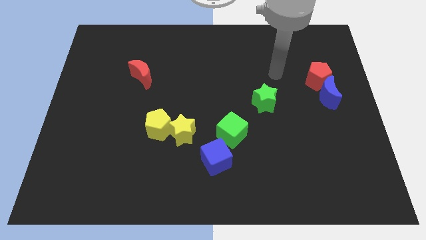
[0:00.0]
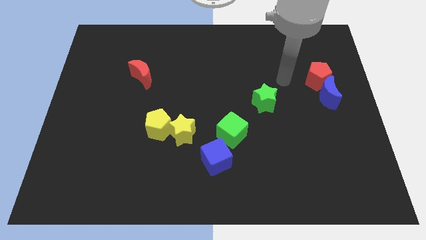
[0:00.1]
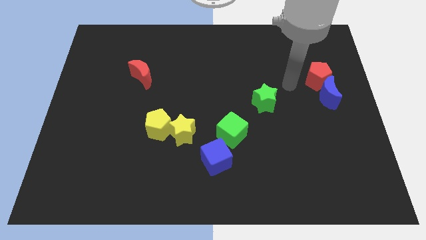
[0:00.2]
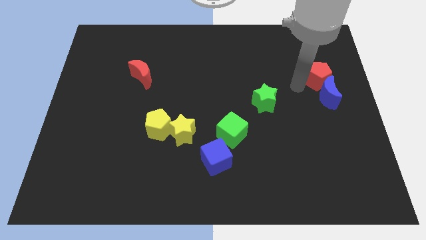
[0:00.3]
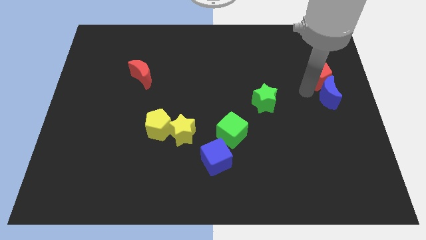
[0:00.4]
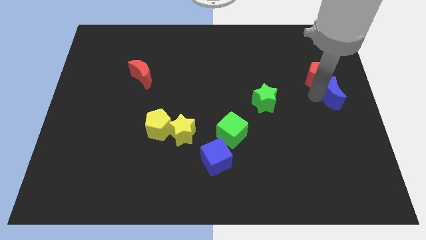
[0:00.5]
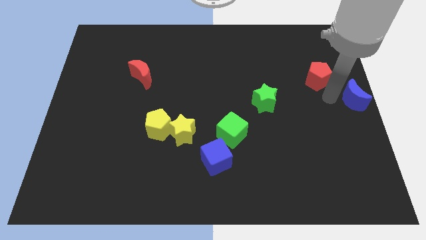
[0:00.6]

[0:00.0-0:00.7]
pull the red pentagon apart from the blue moon

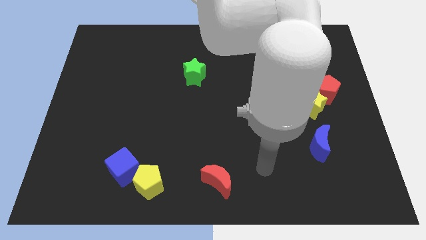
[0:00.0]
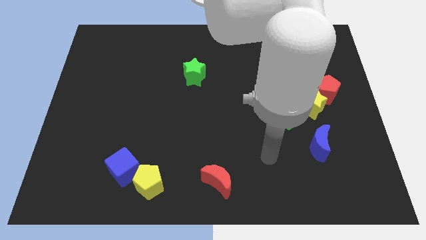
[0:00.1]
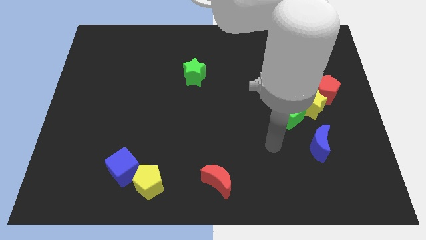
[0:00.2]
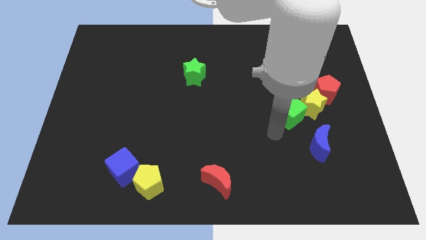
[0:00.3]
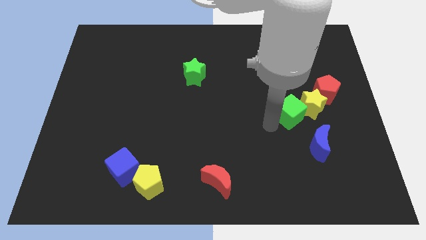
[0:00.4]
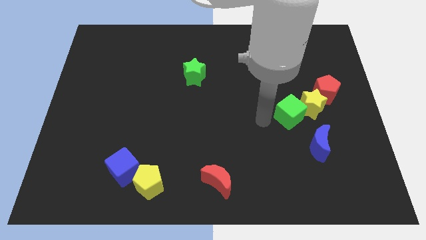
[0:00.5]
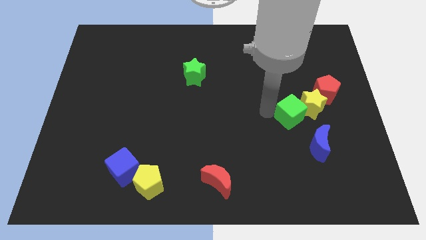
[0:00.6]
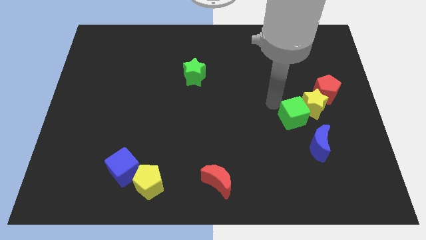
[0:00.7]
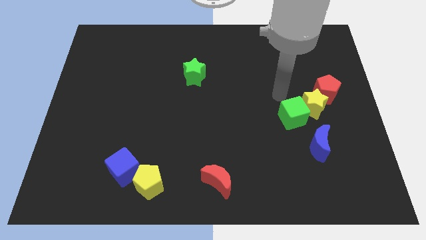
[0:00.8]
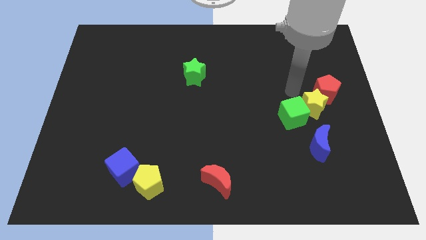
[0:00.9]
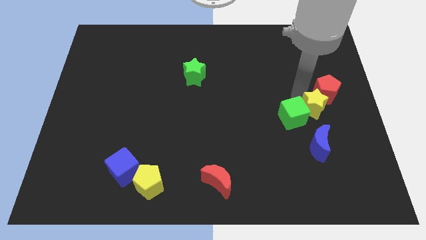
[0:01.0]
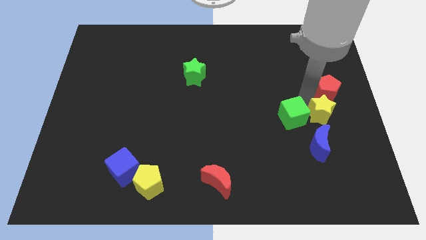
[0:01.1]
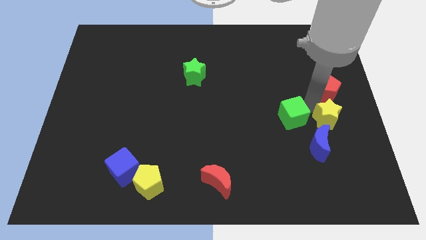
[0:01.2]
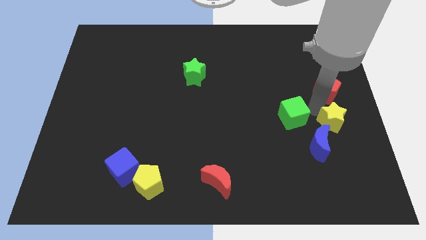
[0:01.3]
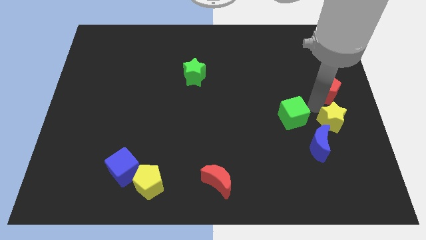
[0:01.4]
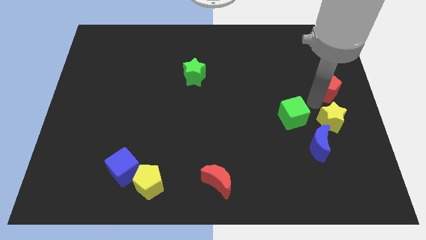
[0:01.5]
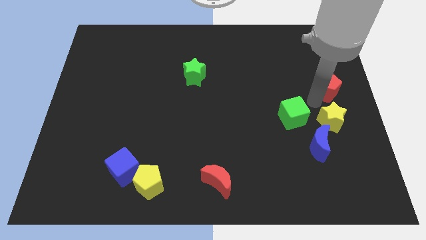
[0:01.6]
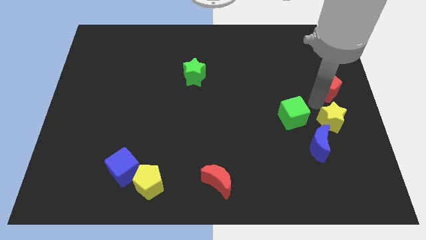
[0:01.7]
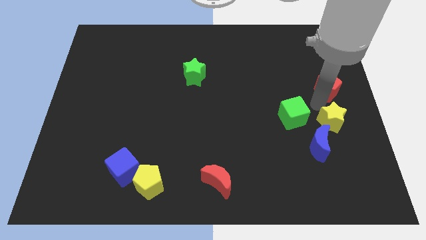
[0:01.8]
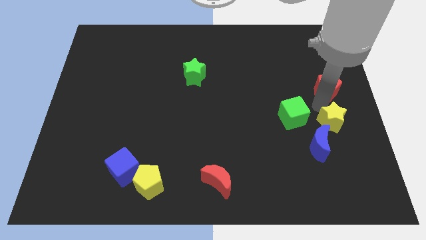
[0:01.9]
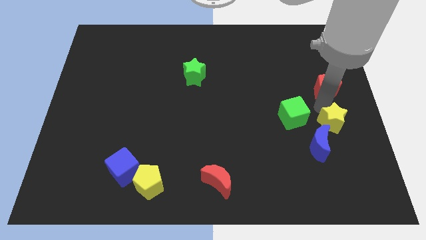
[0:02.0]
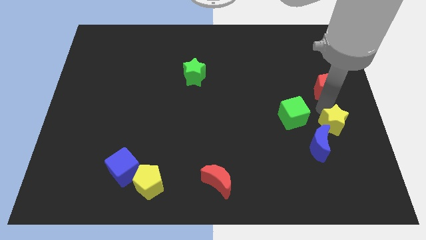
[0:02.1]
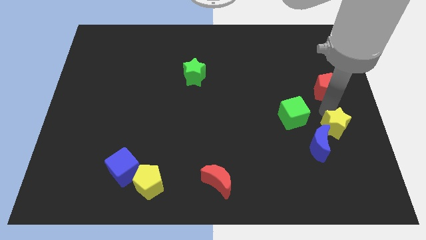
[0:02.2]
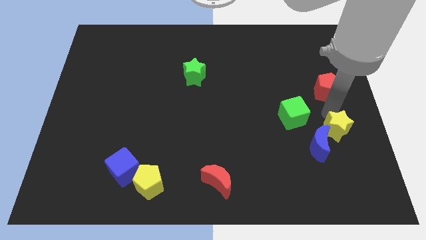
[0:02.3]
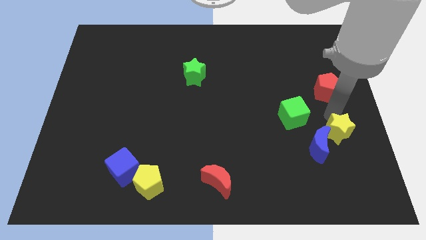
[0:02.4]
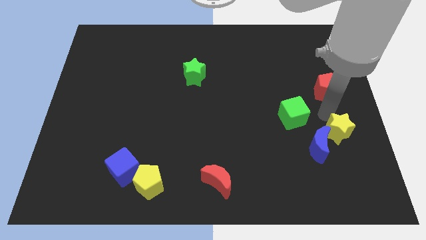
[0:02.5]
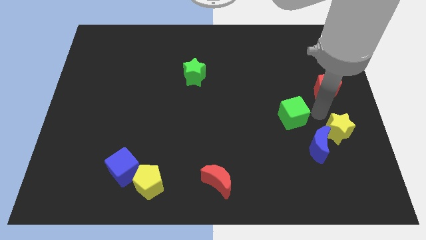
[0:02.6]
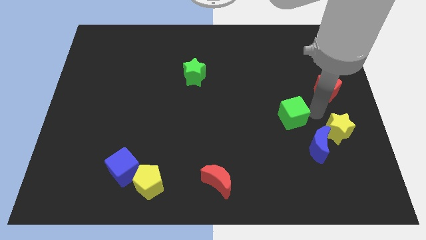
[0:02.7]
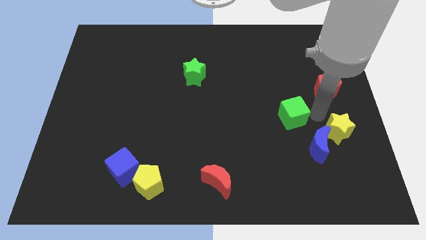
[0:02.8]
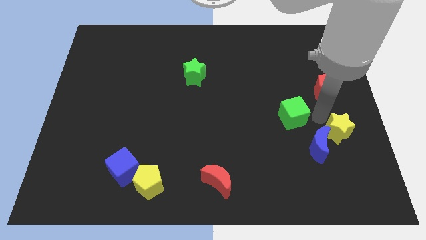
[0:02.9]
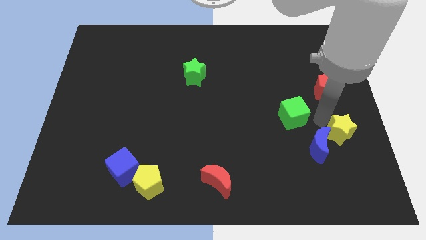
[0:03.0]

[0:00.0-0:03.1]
move the yellow star away from the green cube and red pentagon

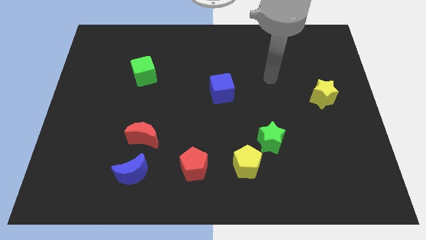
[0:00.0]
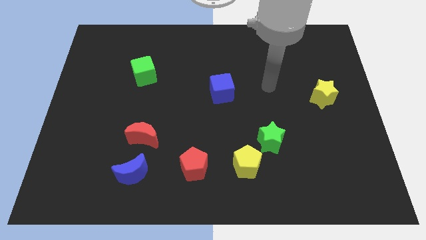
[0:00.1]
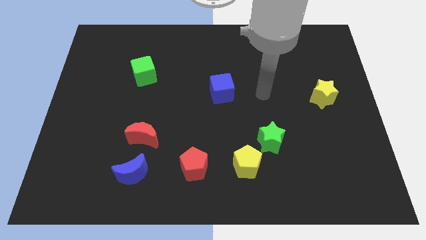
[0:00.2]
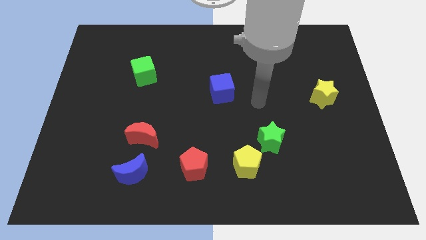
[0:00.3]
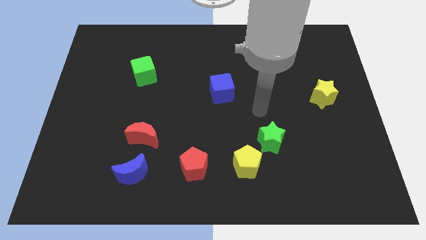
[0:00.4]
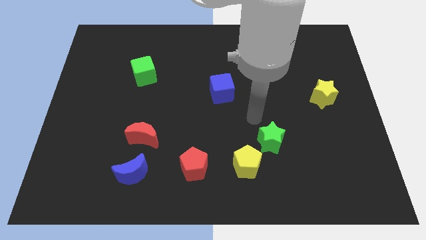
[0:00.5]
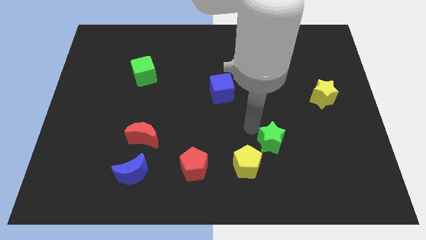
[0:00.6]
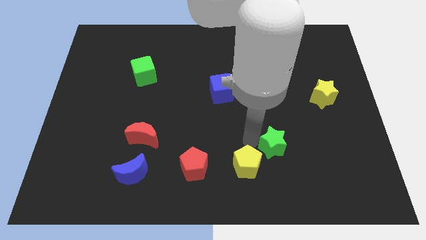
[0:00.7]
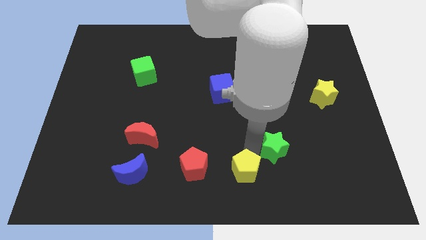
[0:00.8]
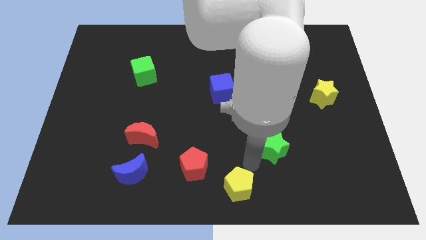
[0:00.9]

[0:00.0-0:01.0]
move the green star away from the yellow pentagon

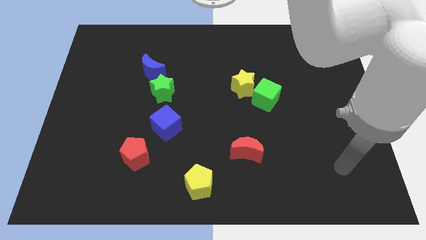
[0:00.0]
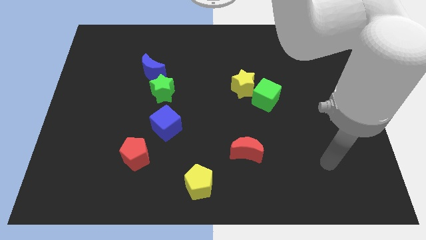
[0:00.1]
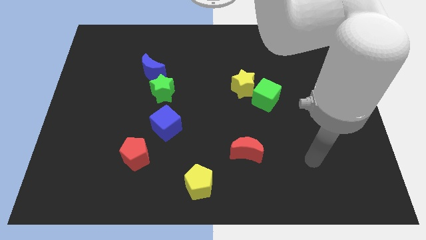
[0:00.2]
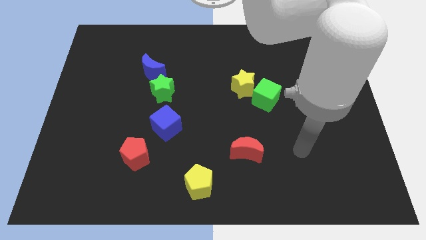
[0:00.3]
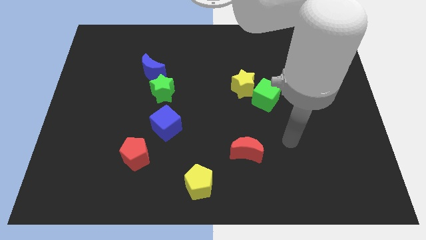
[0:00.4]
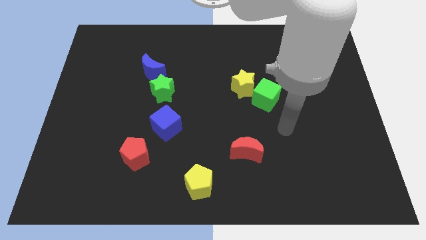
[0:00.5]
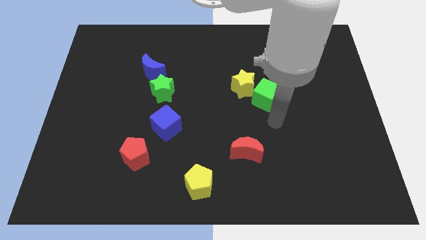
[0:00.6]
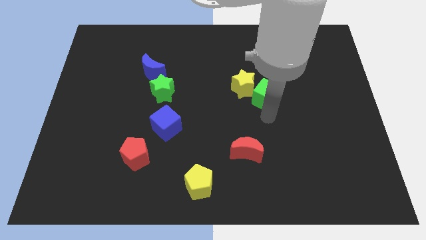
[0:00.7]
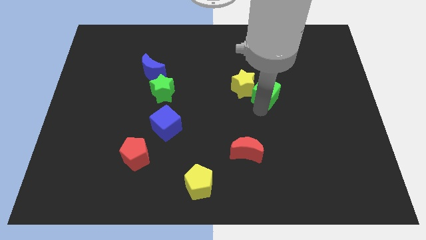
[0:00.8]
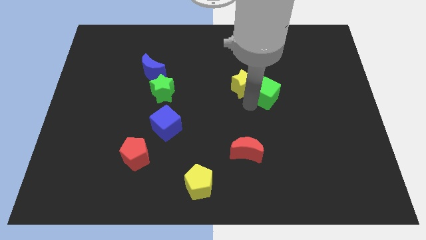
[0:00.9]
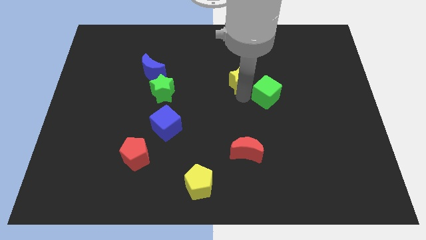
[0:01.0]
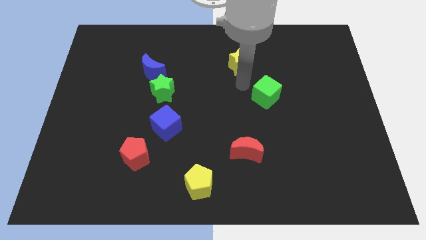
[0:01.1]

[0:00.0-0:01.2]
separate the green cube from the yellow star

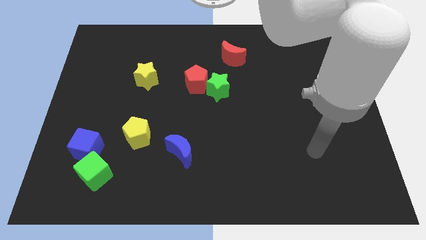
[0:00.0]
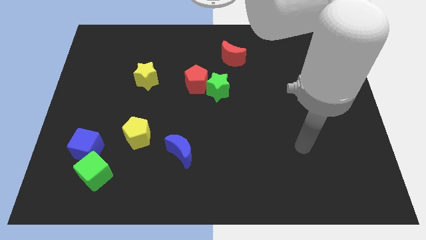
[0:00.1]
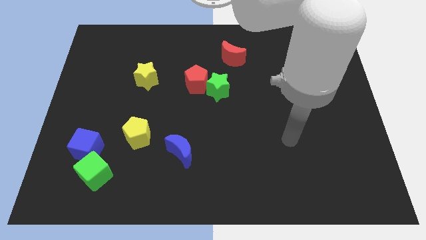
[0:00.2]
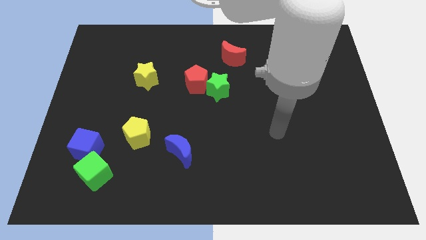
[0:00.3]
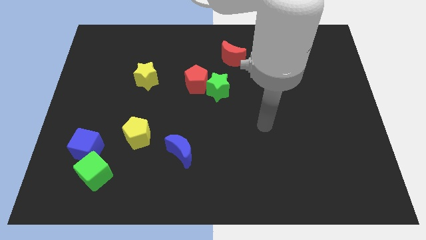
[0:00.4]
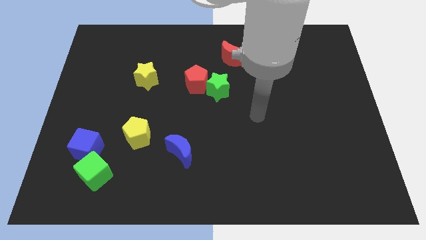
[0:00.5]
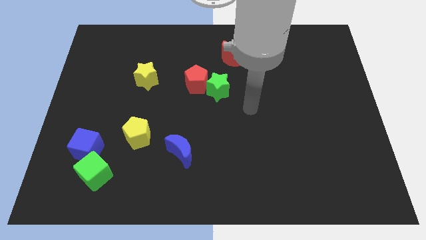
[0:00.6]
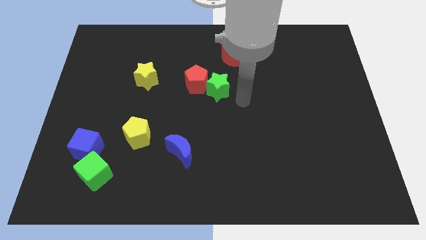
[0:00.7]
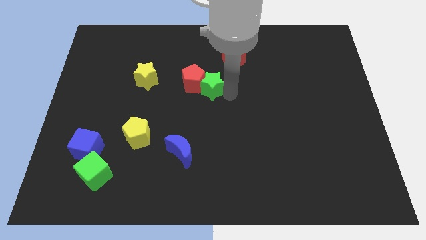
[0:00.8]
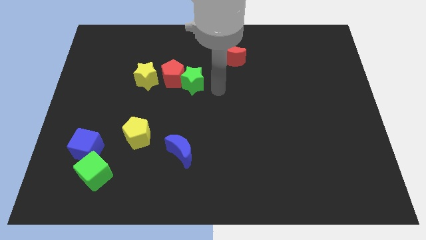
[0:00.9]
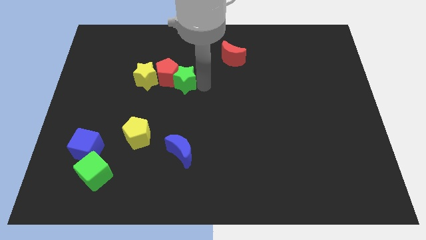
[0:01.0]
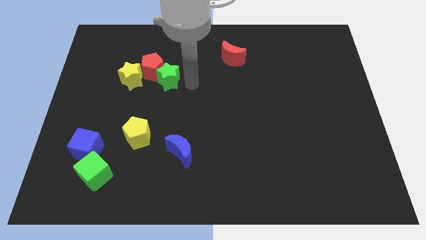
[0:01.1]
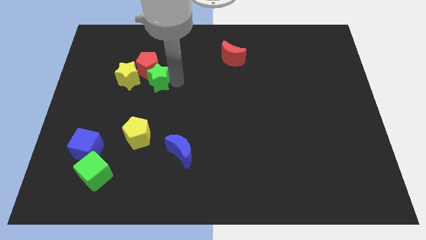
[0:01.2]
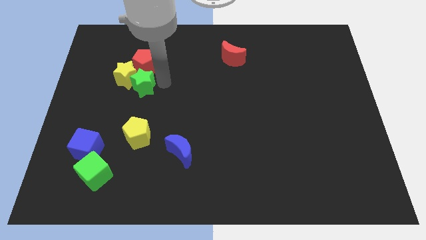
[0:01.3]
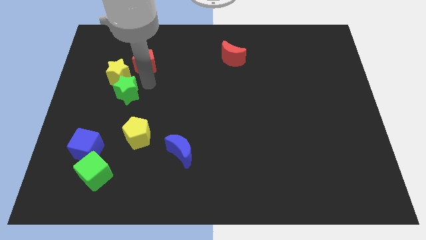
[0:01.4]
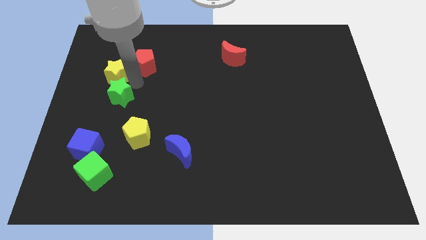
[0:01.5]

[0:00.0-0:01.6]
move the red pentagon away from the green star

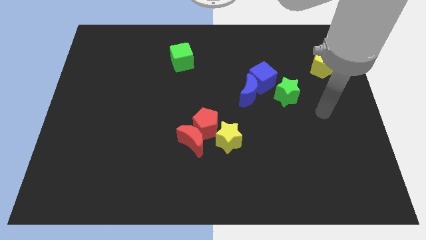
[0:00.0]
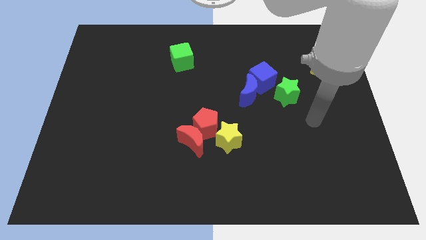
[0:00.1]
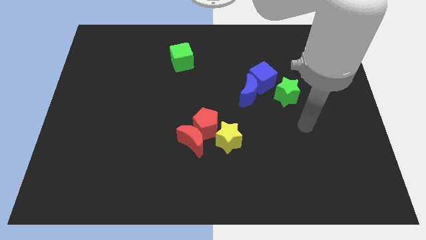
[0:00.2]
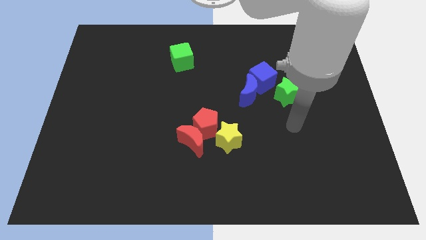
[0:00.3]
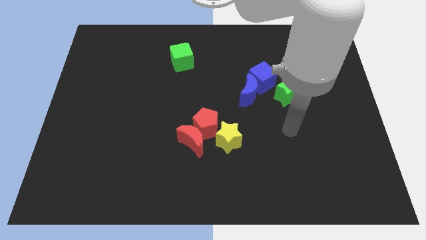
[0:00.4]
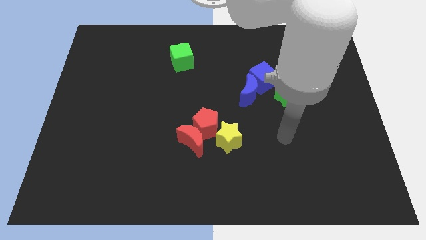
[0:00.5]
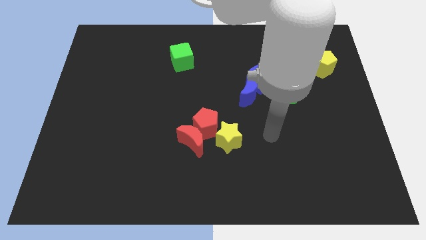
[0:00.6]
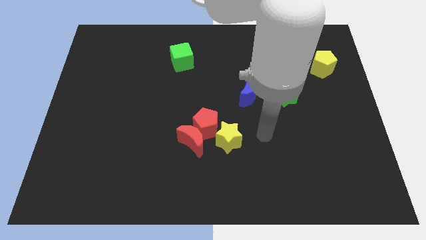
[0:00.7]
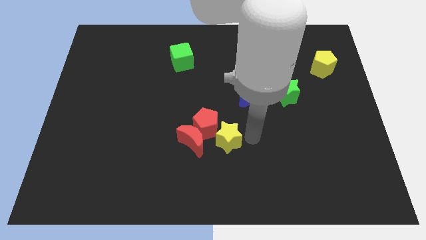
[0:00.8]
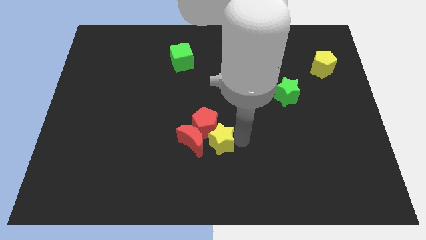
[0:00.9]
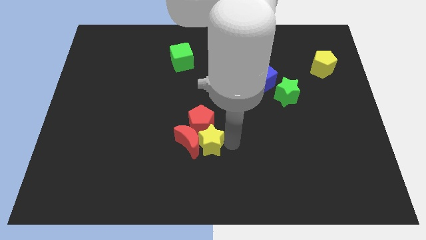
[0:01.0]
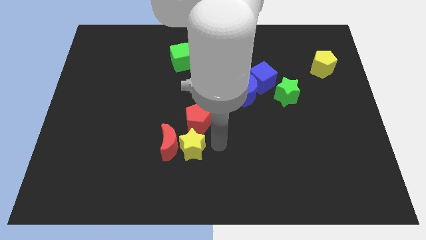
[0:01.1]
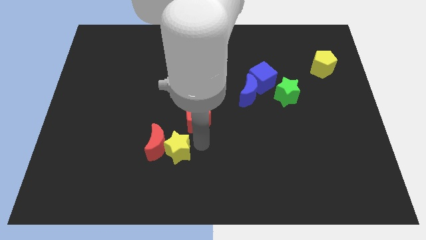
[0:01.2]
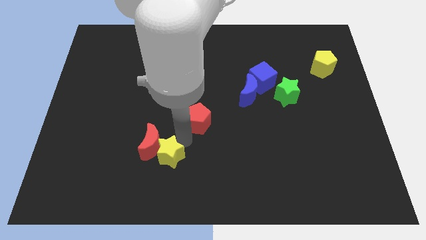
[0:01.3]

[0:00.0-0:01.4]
separate the red pentagon from the red moon and yellow star

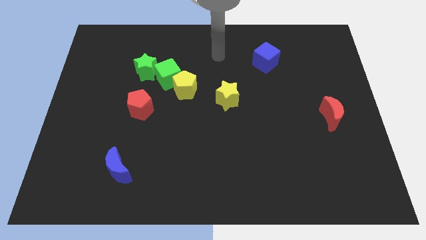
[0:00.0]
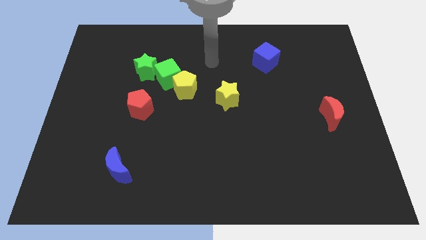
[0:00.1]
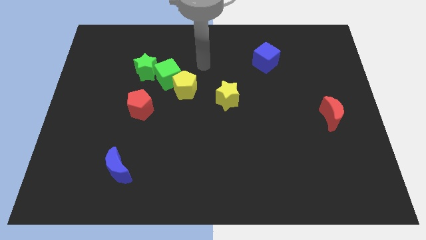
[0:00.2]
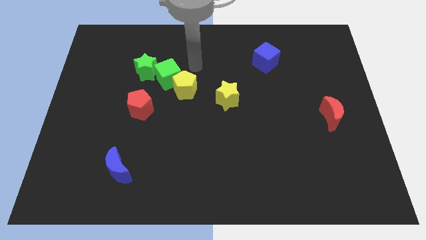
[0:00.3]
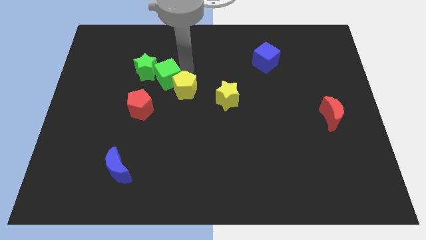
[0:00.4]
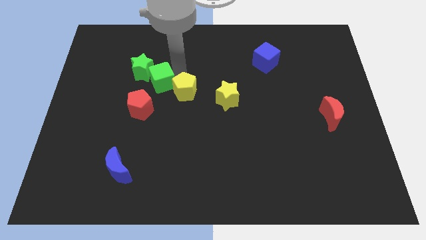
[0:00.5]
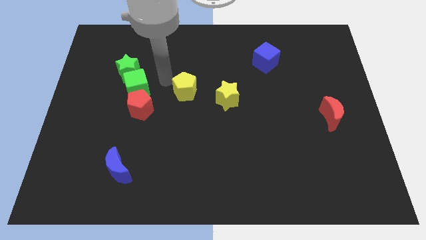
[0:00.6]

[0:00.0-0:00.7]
pull the yellow pentagon apart from the green cube
